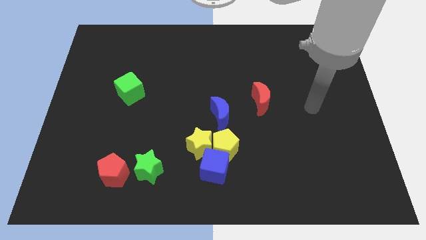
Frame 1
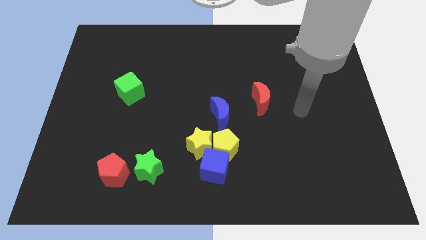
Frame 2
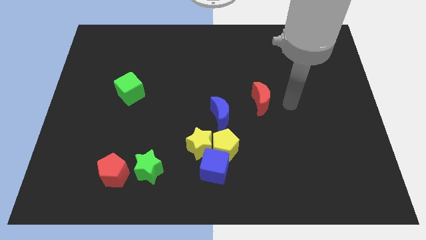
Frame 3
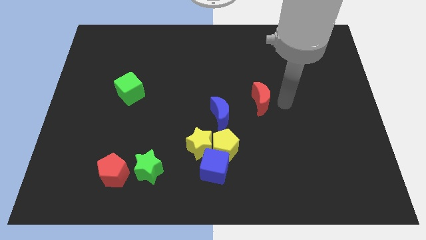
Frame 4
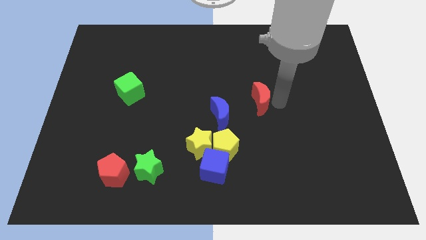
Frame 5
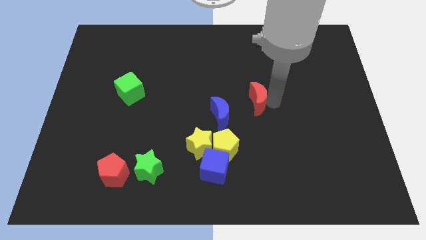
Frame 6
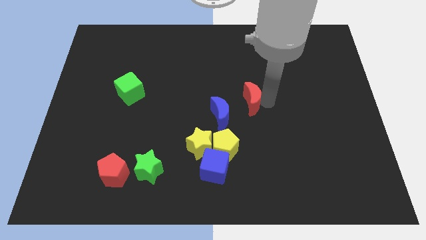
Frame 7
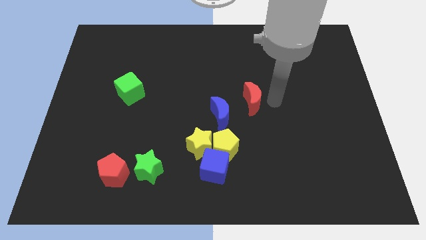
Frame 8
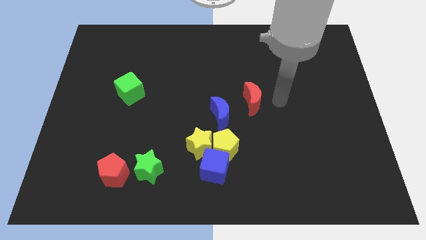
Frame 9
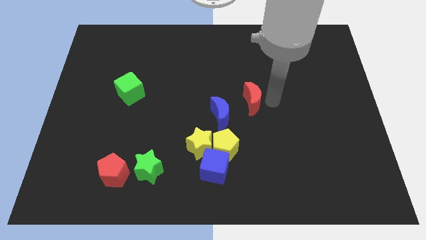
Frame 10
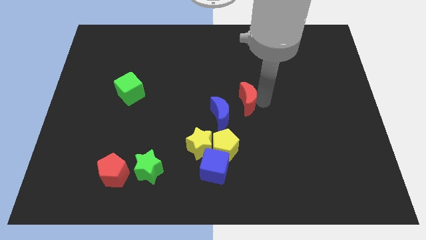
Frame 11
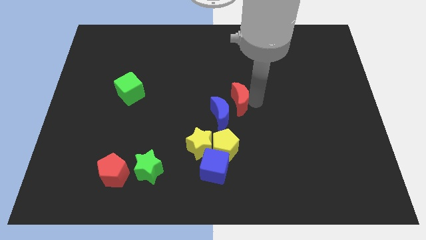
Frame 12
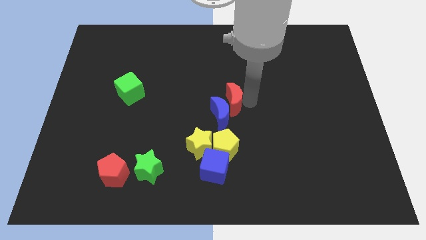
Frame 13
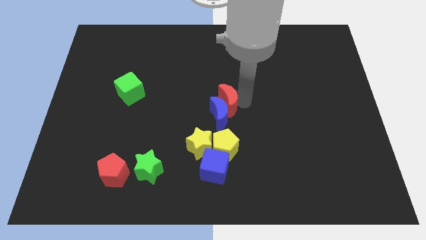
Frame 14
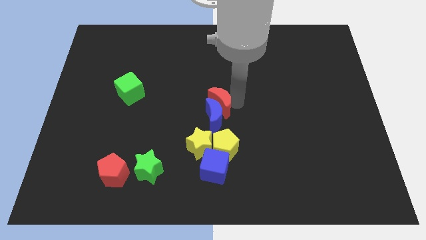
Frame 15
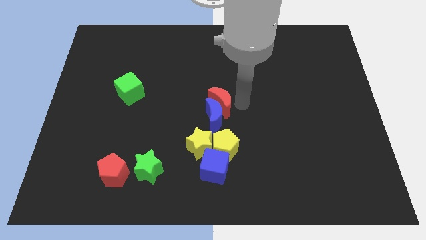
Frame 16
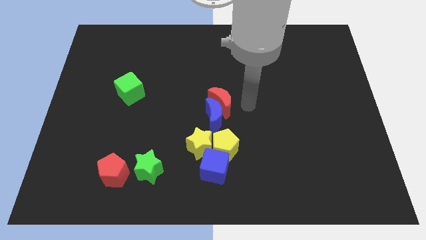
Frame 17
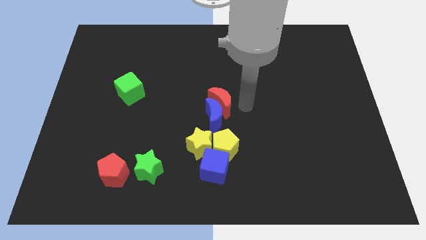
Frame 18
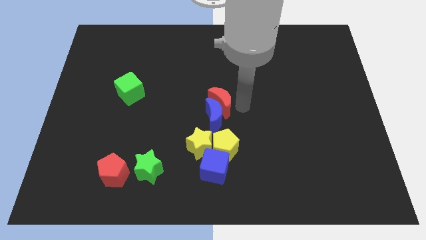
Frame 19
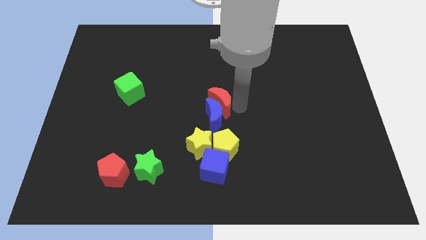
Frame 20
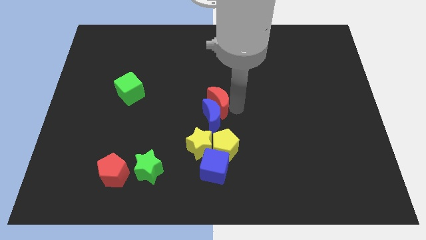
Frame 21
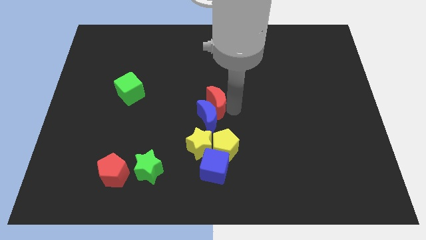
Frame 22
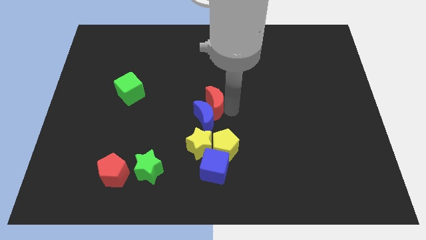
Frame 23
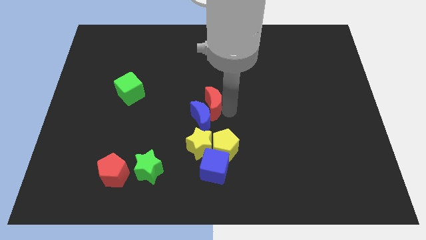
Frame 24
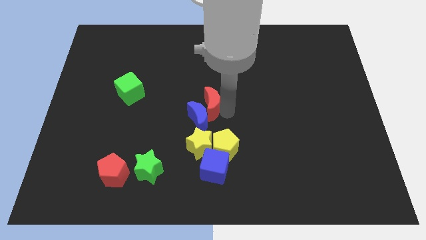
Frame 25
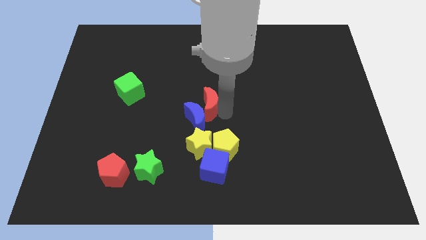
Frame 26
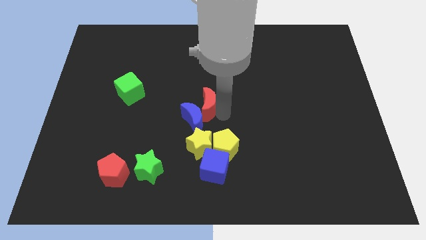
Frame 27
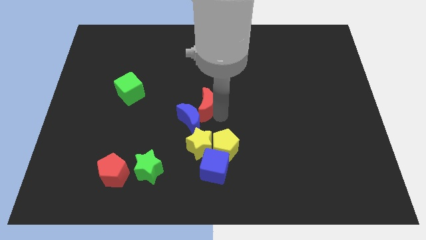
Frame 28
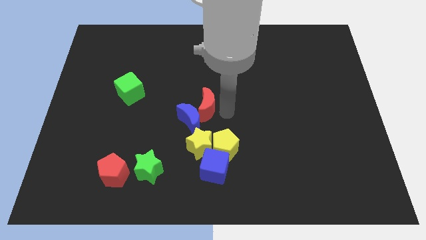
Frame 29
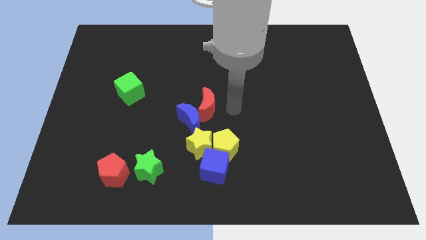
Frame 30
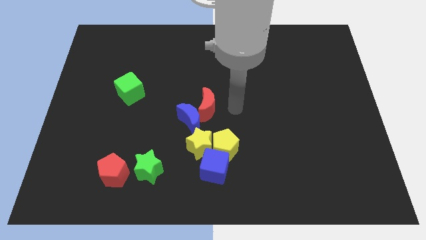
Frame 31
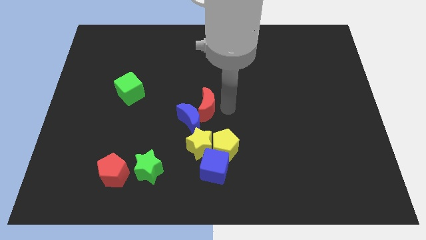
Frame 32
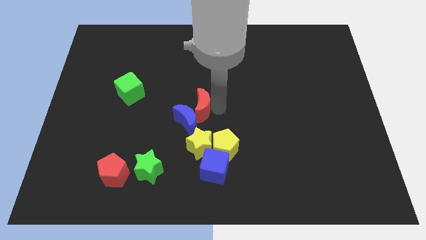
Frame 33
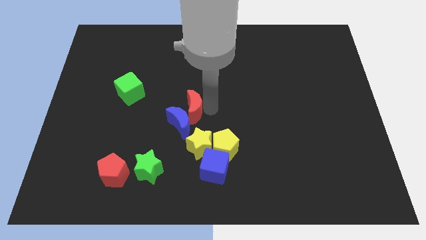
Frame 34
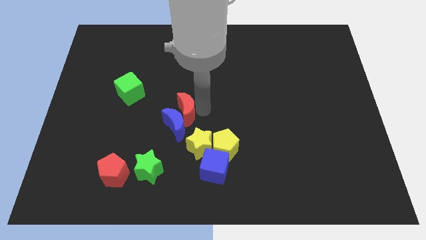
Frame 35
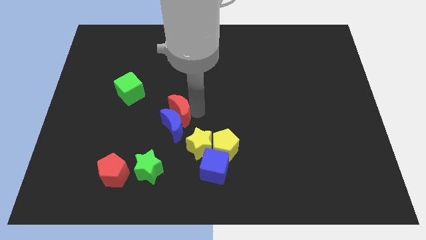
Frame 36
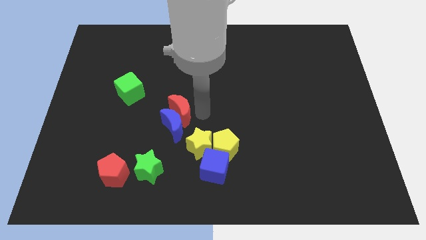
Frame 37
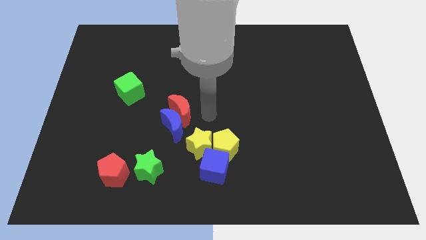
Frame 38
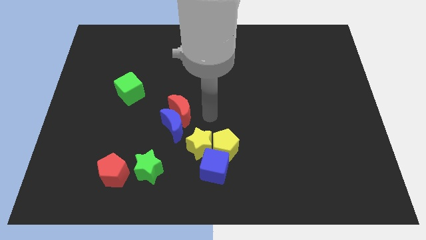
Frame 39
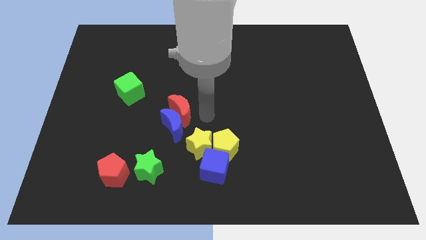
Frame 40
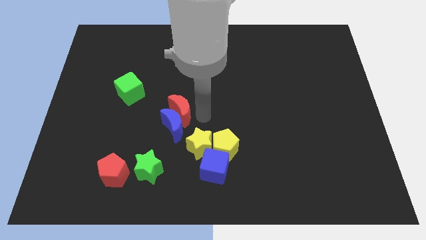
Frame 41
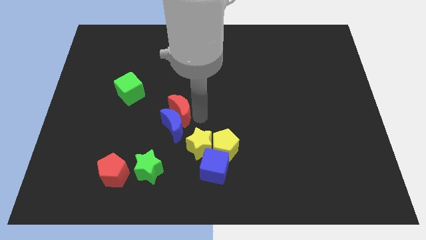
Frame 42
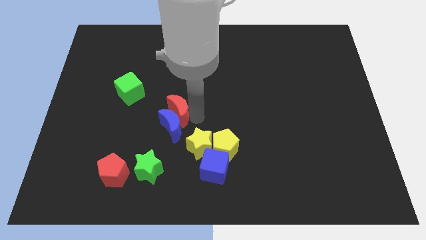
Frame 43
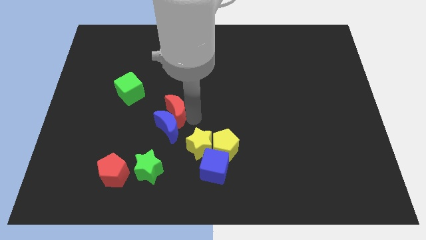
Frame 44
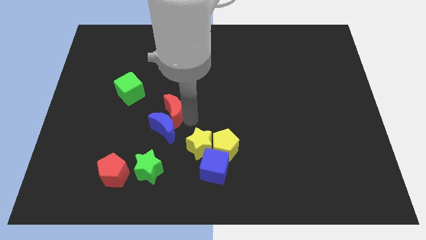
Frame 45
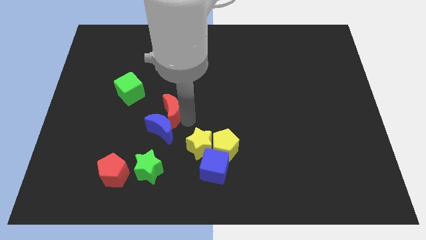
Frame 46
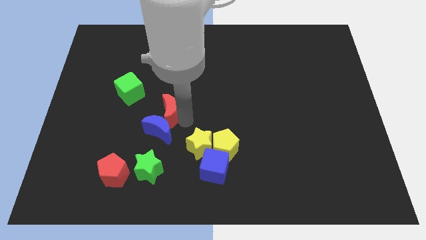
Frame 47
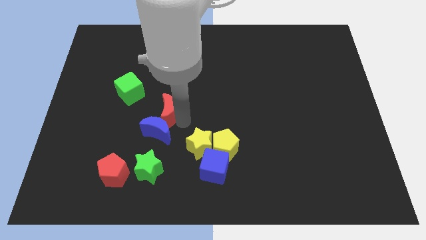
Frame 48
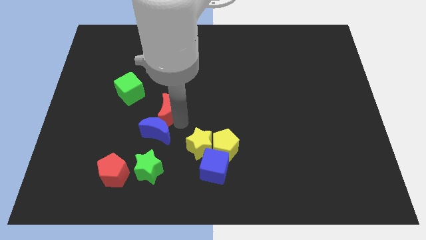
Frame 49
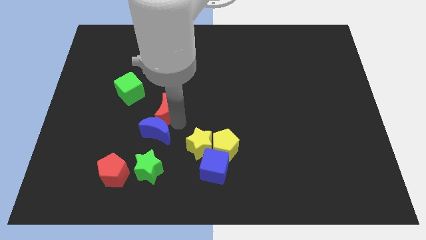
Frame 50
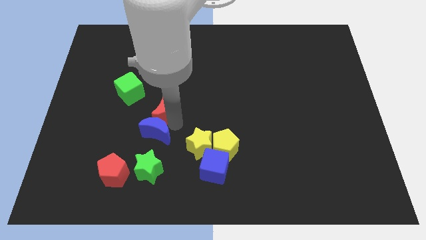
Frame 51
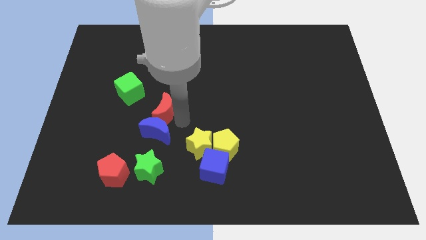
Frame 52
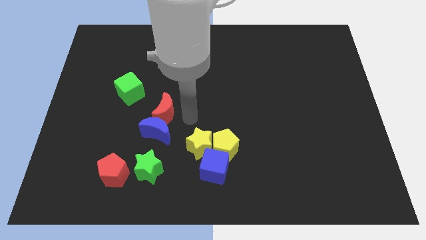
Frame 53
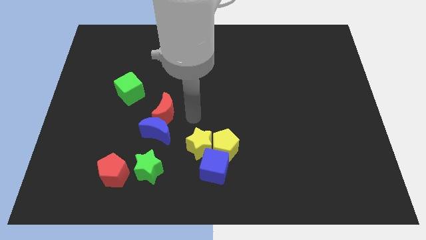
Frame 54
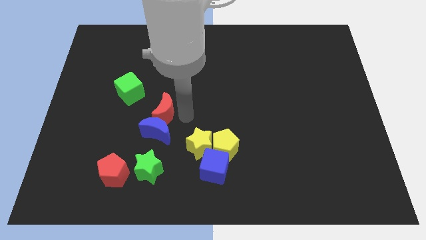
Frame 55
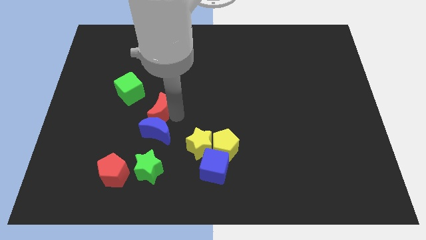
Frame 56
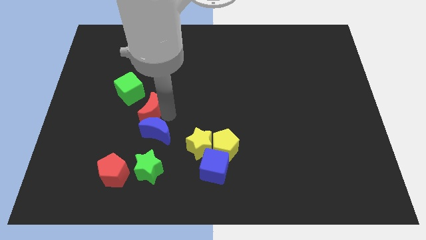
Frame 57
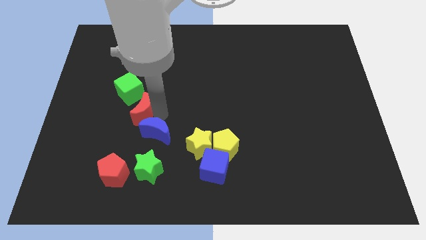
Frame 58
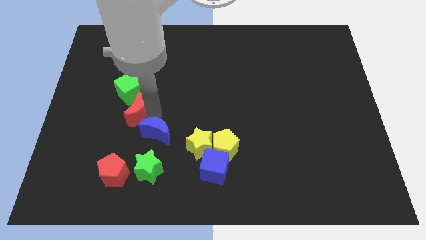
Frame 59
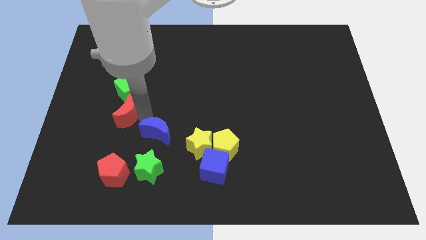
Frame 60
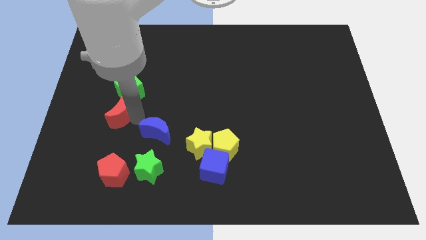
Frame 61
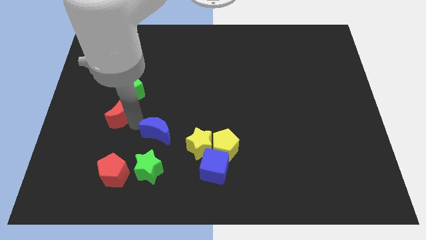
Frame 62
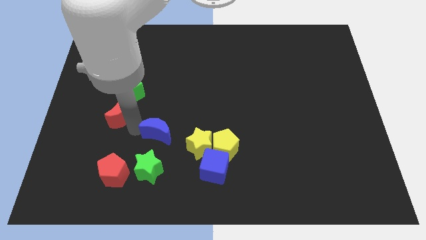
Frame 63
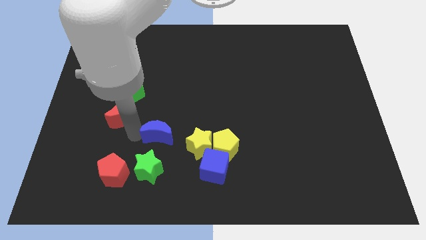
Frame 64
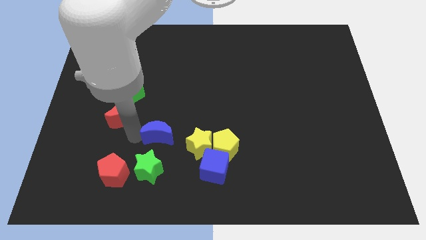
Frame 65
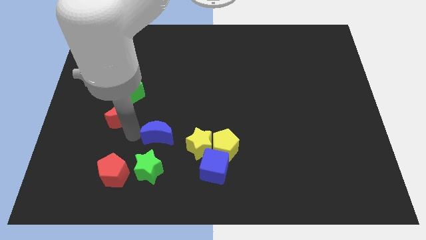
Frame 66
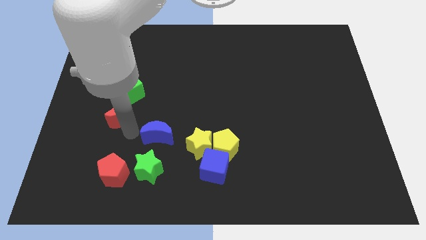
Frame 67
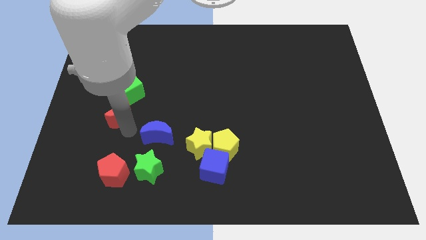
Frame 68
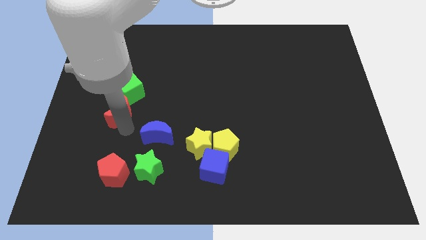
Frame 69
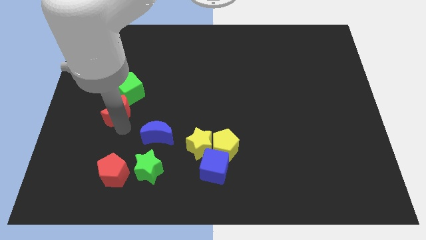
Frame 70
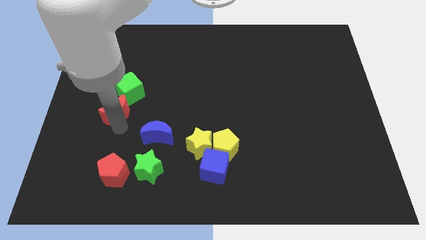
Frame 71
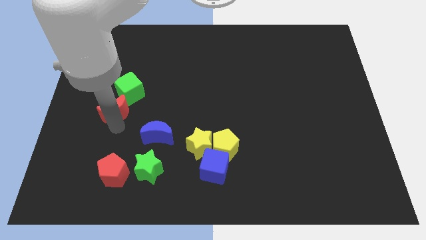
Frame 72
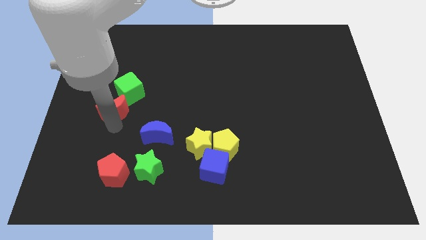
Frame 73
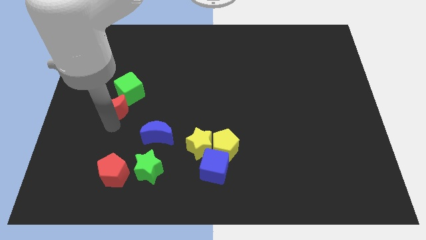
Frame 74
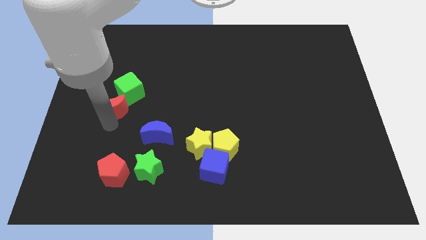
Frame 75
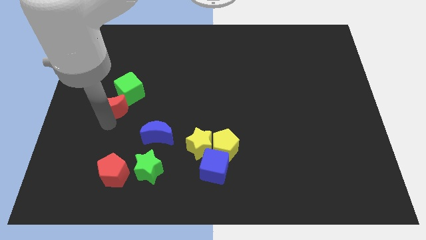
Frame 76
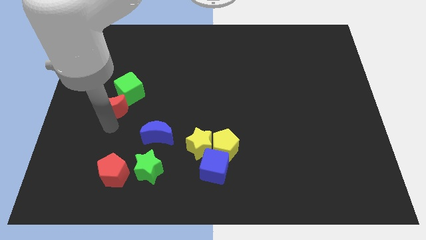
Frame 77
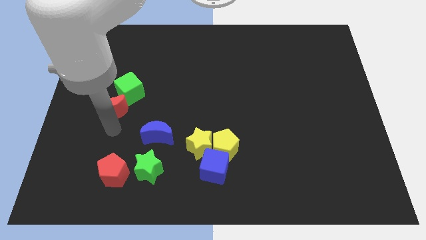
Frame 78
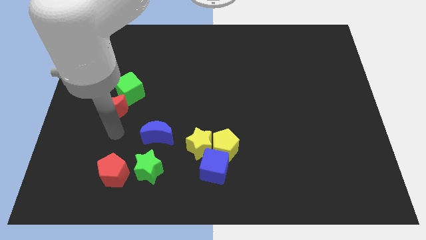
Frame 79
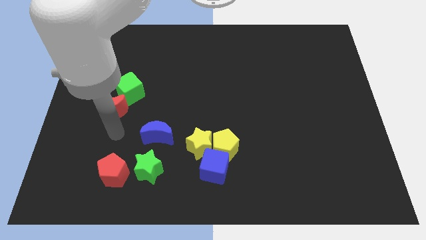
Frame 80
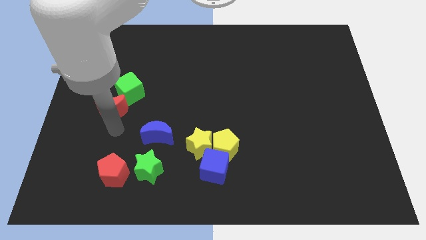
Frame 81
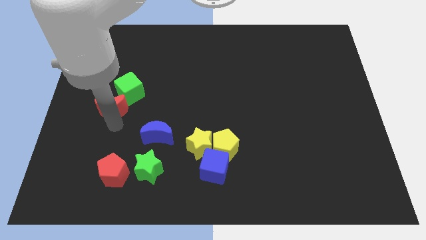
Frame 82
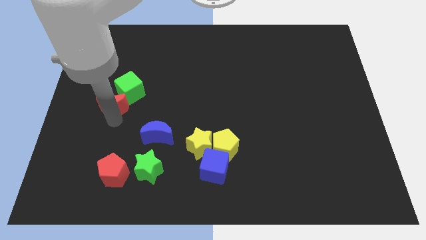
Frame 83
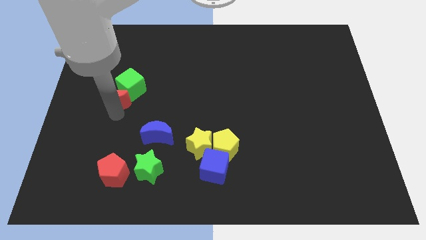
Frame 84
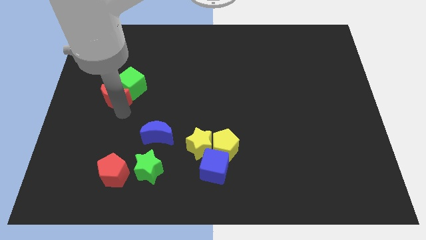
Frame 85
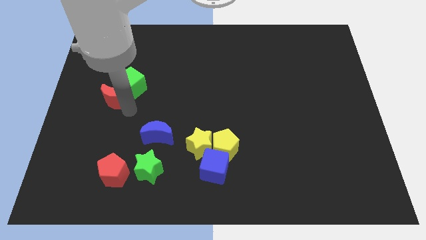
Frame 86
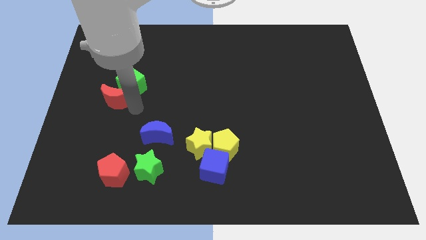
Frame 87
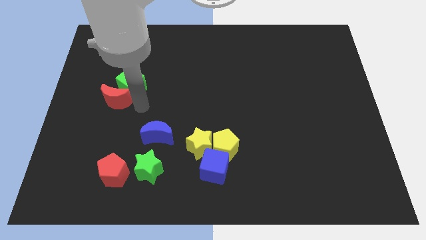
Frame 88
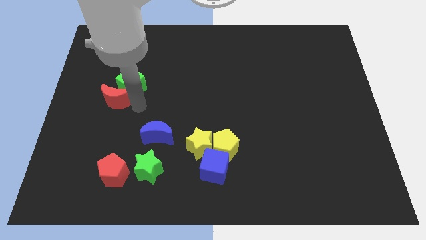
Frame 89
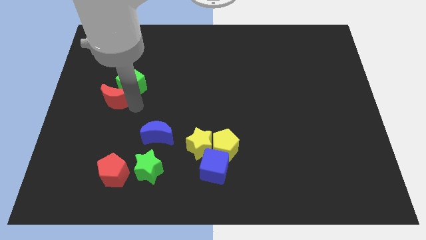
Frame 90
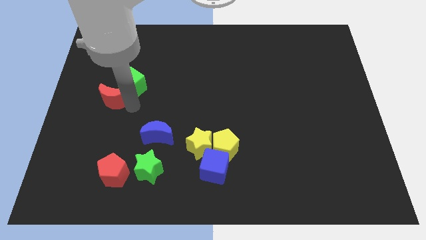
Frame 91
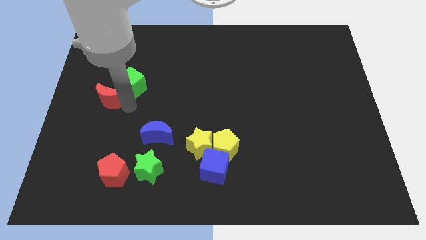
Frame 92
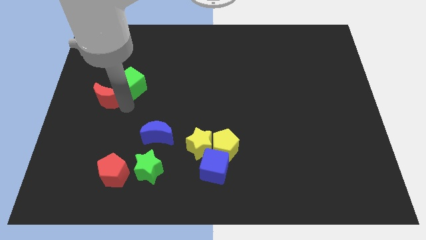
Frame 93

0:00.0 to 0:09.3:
slide the red moon to the center left
